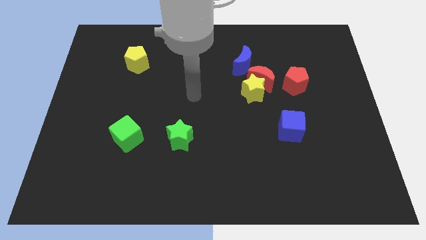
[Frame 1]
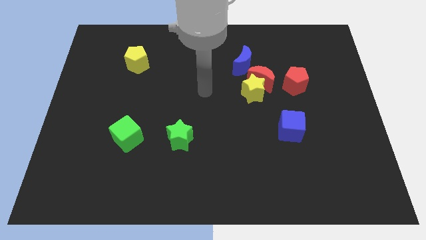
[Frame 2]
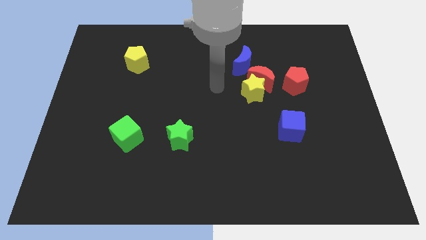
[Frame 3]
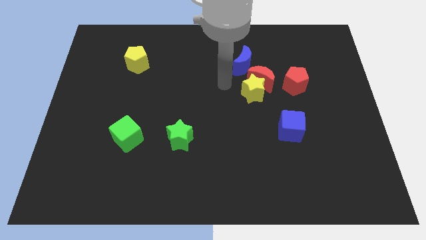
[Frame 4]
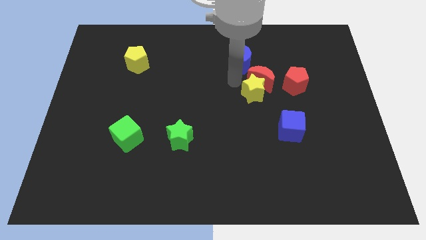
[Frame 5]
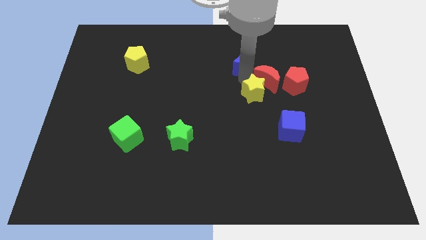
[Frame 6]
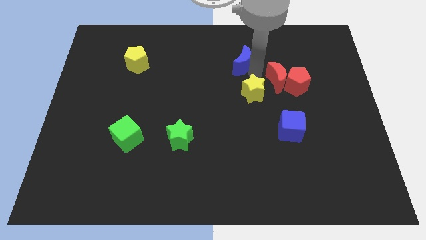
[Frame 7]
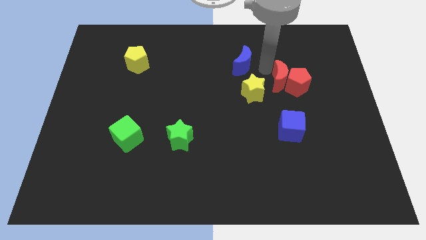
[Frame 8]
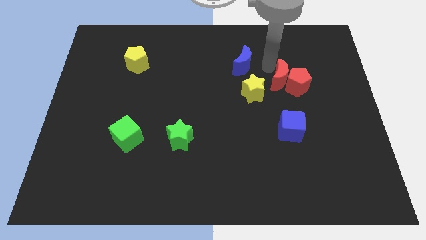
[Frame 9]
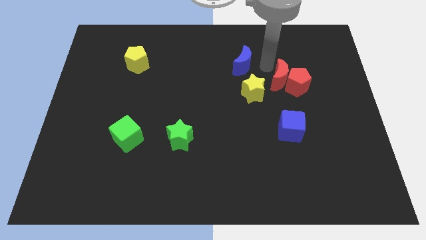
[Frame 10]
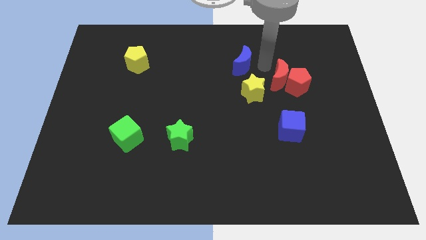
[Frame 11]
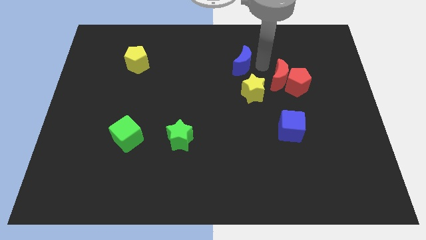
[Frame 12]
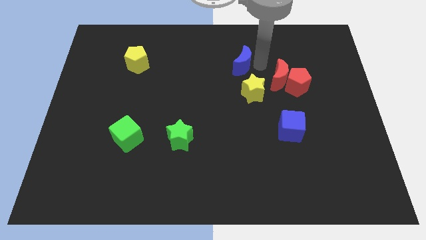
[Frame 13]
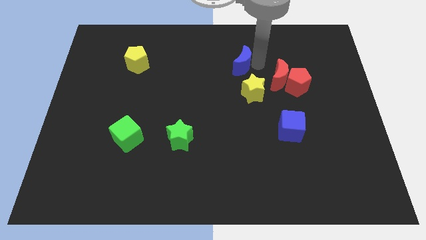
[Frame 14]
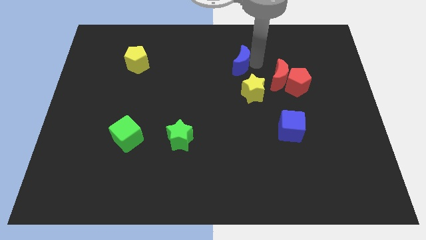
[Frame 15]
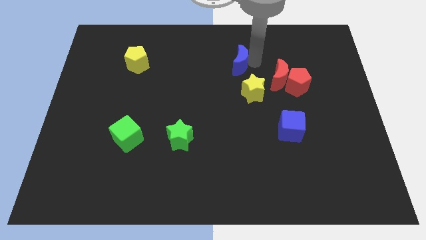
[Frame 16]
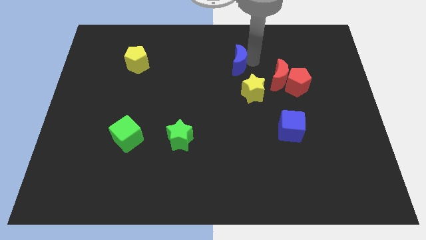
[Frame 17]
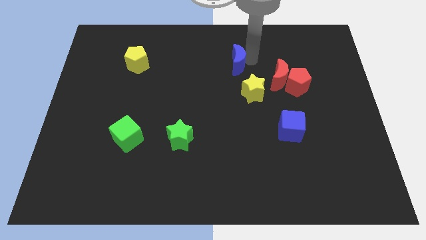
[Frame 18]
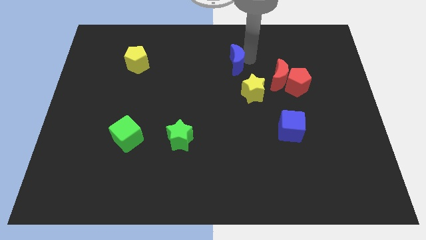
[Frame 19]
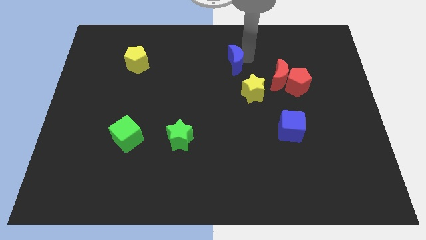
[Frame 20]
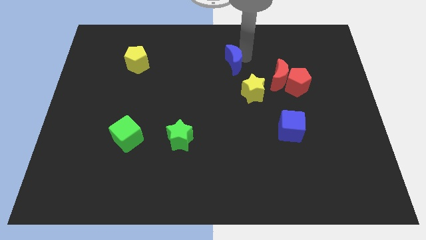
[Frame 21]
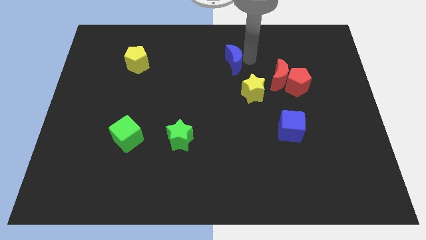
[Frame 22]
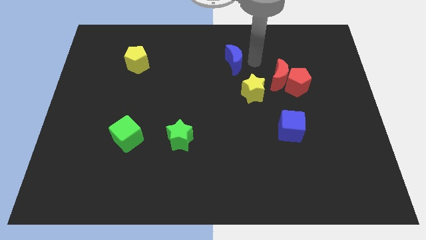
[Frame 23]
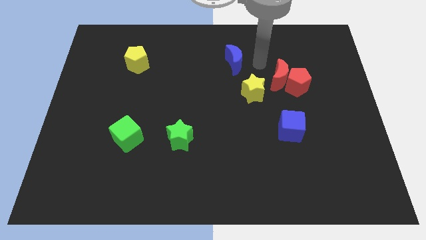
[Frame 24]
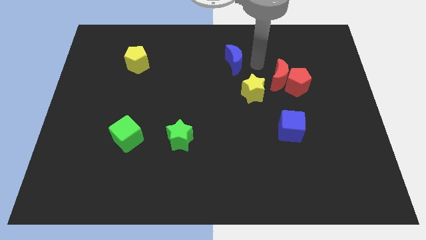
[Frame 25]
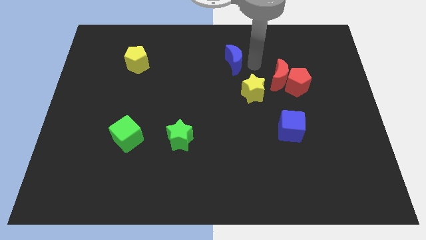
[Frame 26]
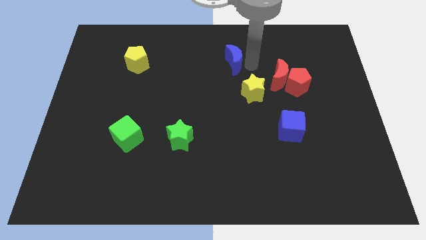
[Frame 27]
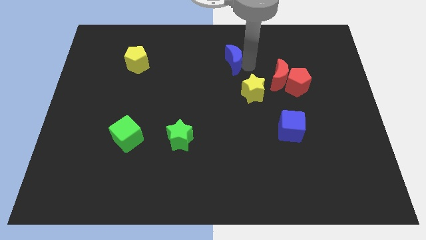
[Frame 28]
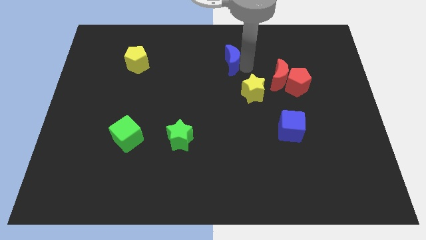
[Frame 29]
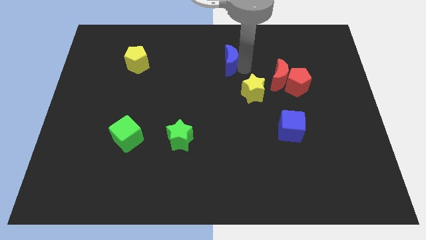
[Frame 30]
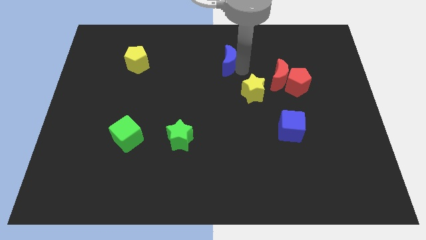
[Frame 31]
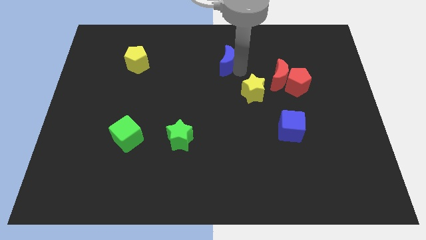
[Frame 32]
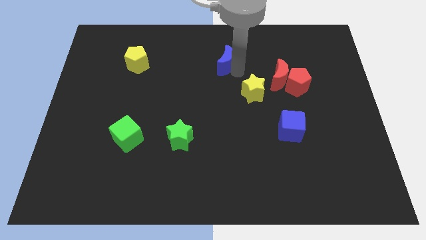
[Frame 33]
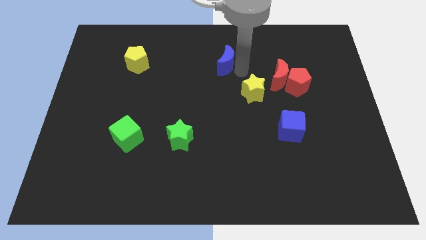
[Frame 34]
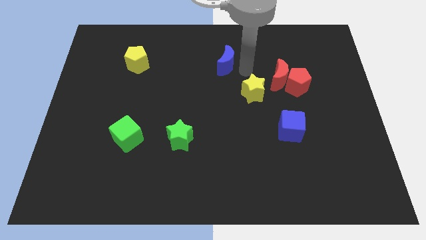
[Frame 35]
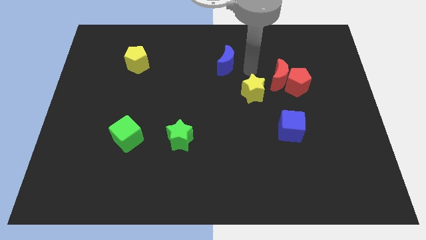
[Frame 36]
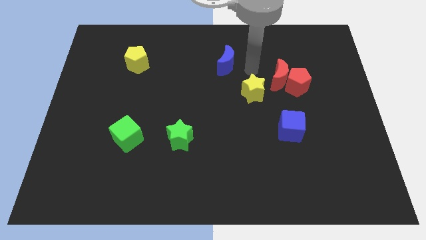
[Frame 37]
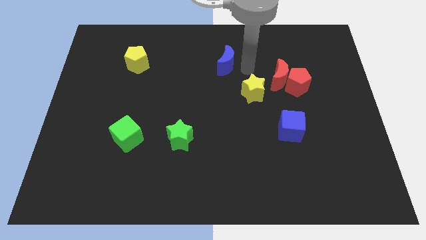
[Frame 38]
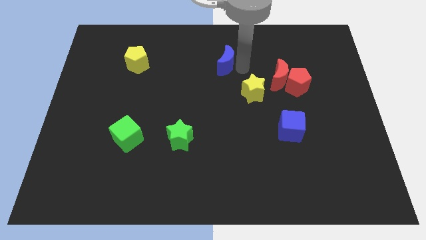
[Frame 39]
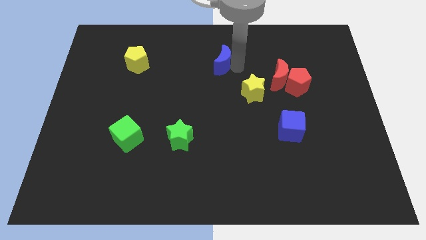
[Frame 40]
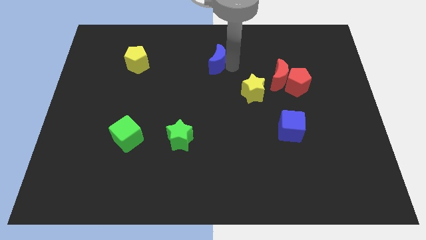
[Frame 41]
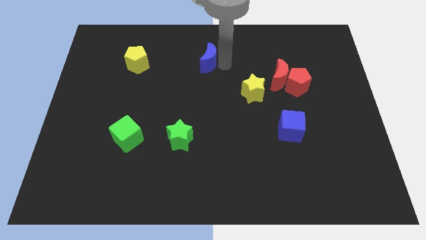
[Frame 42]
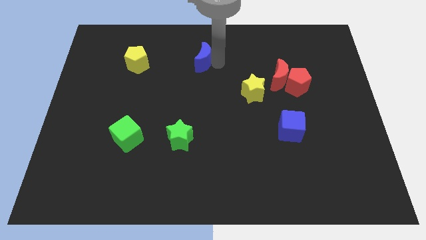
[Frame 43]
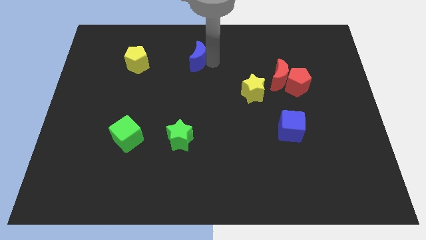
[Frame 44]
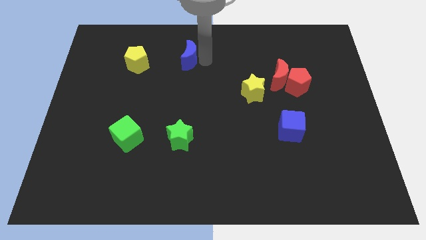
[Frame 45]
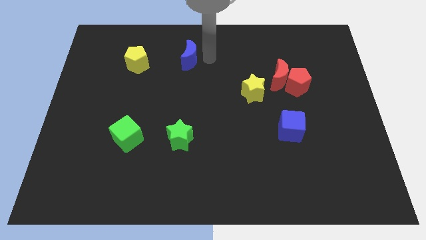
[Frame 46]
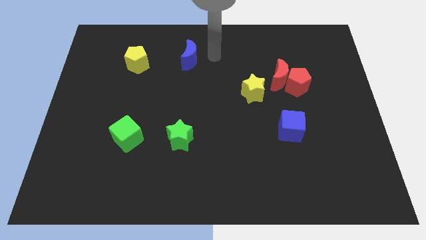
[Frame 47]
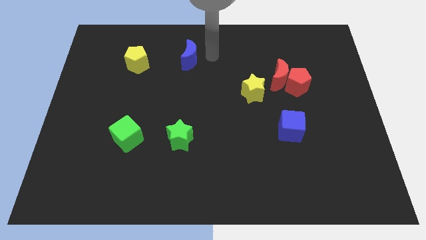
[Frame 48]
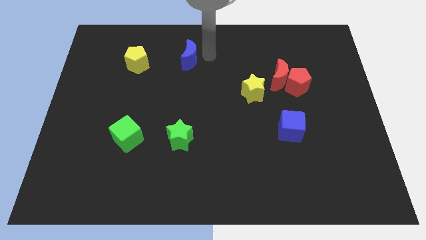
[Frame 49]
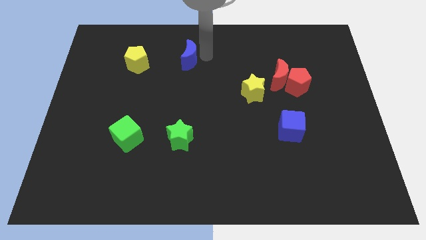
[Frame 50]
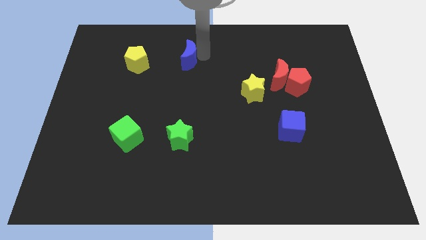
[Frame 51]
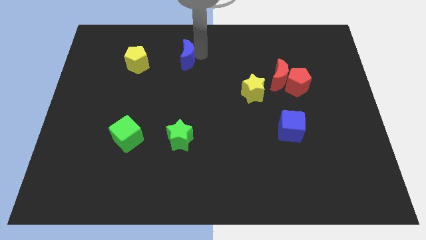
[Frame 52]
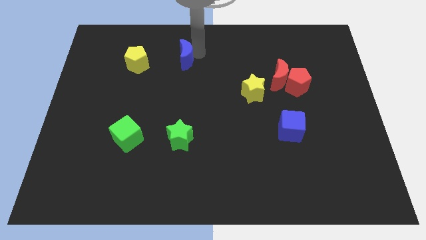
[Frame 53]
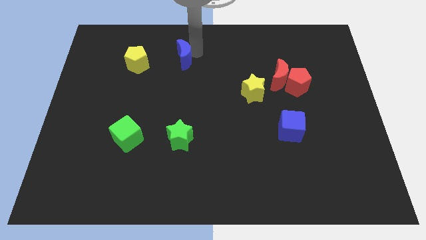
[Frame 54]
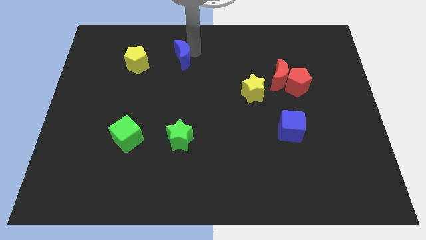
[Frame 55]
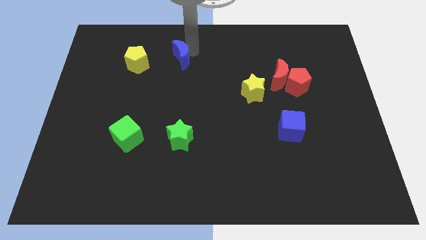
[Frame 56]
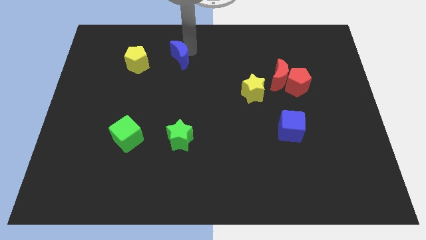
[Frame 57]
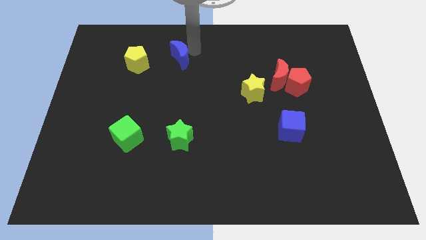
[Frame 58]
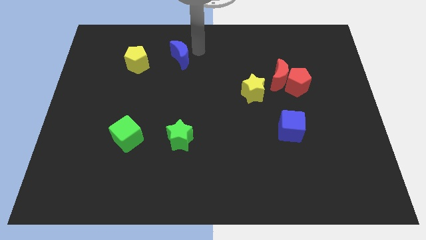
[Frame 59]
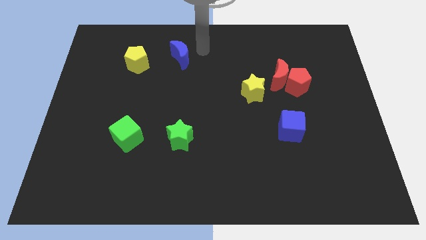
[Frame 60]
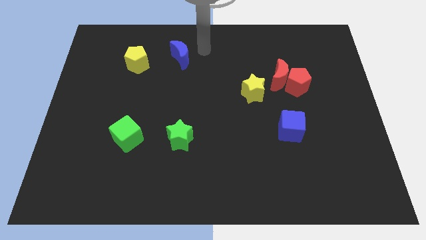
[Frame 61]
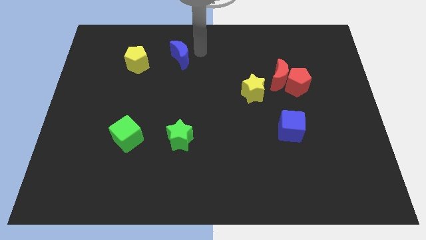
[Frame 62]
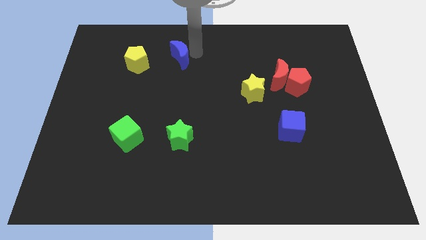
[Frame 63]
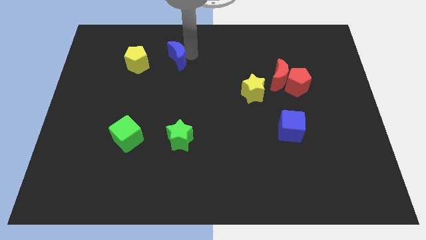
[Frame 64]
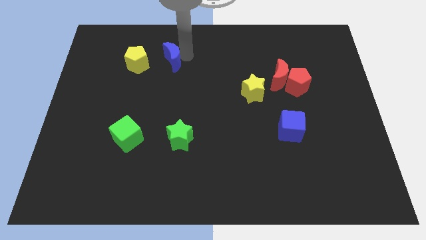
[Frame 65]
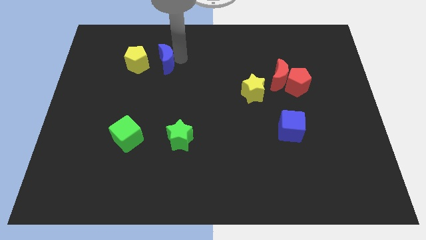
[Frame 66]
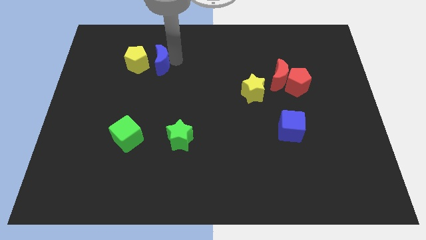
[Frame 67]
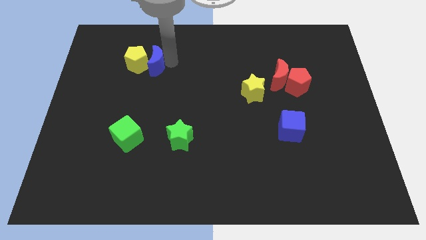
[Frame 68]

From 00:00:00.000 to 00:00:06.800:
push the blue moon close to the yellow pentagon

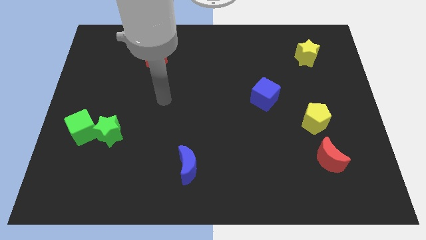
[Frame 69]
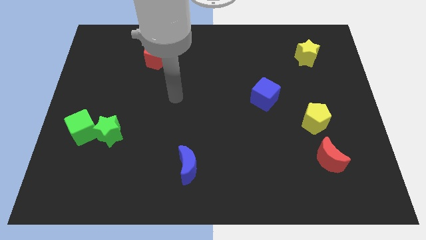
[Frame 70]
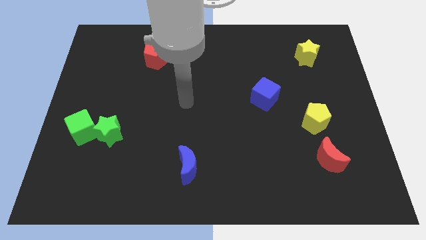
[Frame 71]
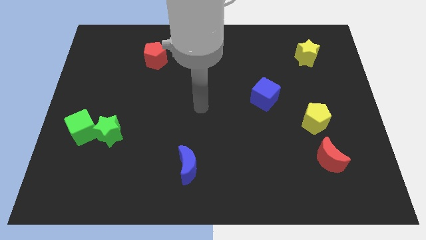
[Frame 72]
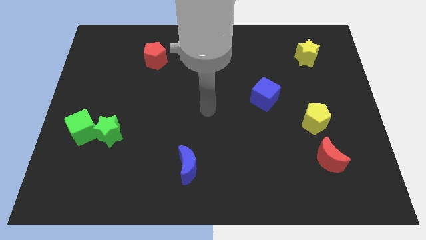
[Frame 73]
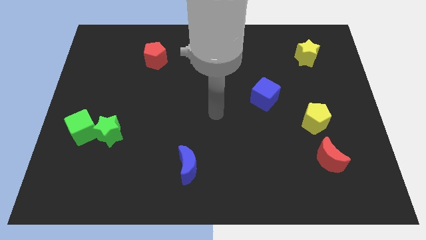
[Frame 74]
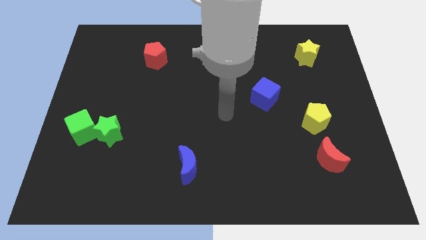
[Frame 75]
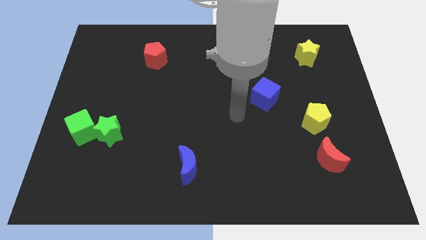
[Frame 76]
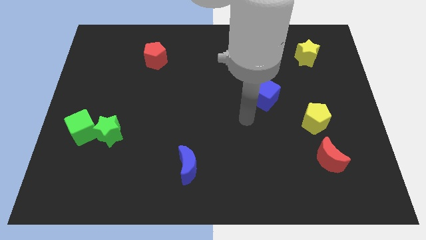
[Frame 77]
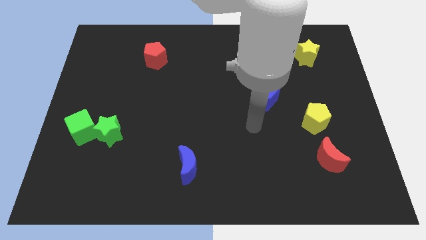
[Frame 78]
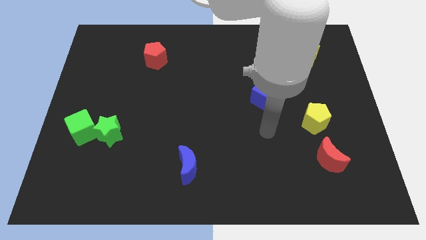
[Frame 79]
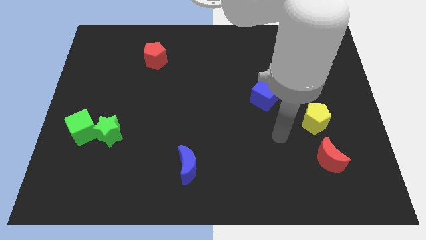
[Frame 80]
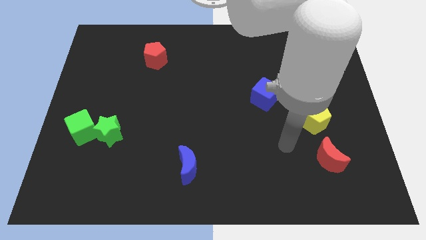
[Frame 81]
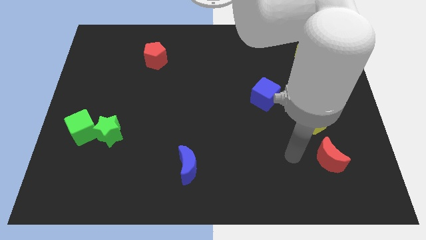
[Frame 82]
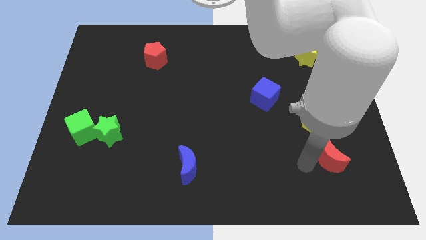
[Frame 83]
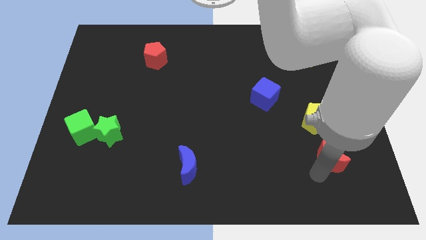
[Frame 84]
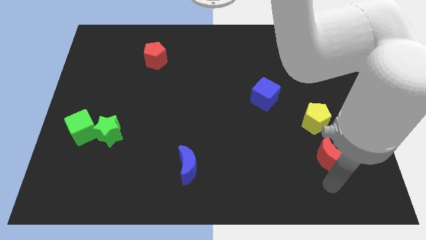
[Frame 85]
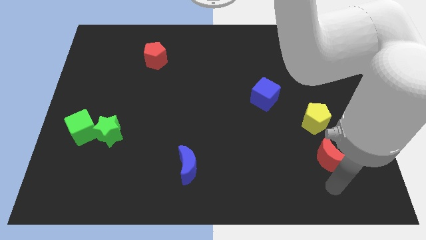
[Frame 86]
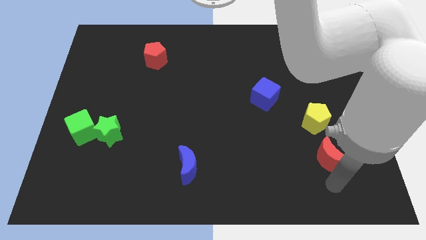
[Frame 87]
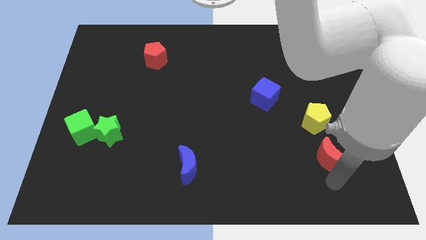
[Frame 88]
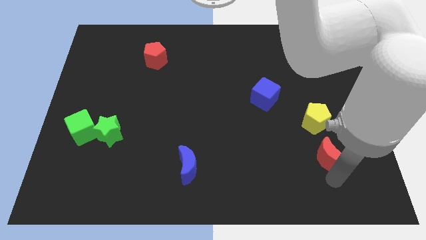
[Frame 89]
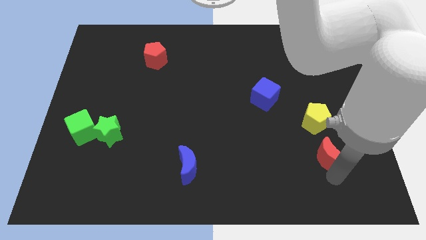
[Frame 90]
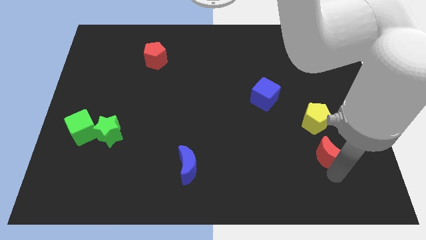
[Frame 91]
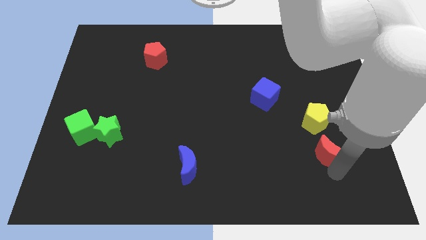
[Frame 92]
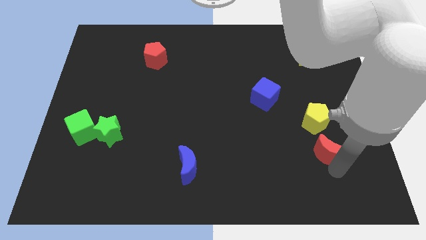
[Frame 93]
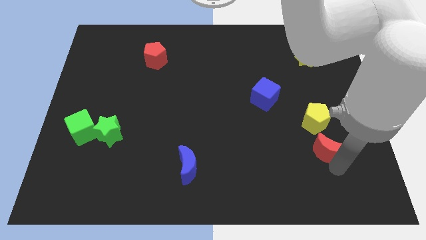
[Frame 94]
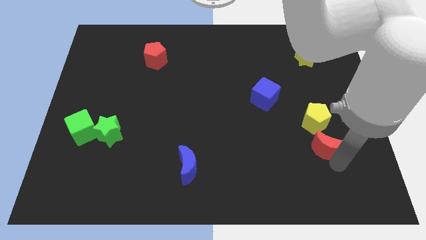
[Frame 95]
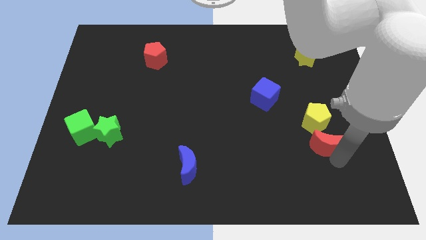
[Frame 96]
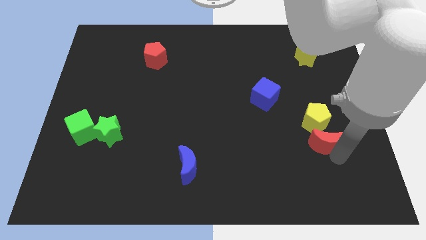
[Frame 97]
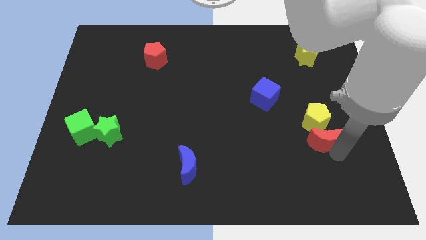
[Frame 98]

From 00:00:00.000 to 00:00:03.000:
move the red moon to the yellow pentagon
